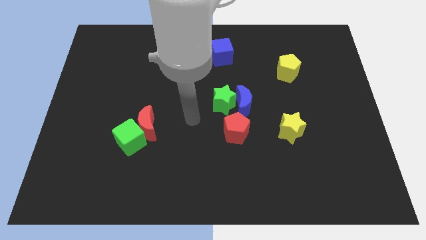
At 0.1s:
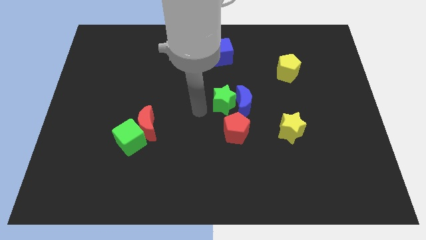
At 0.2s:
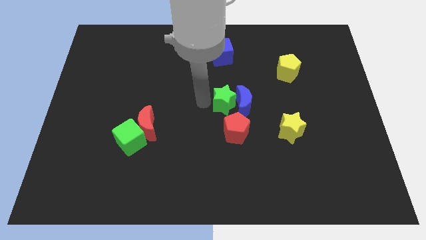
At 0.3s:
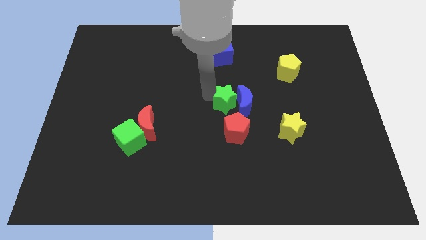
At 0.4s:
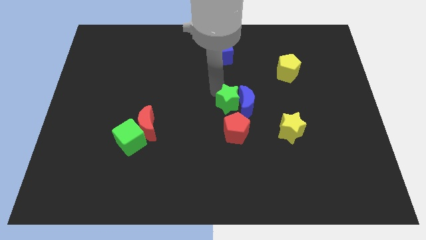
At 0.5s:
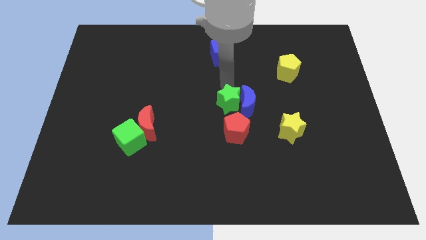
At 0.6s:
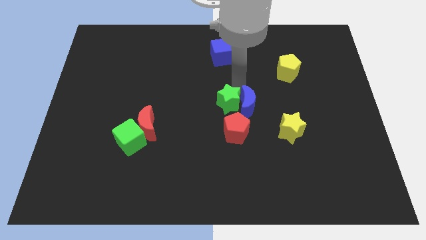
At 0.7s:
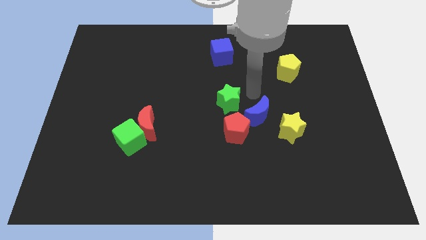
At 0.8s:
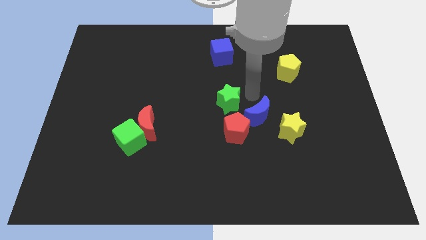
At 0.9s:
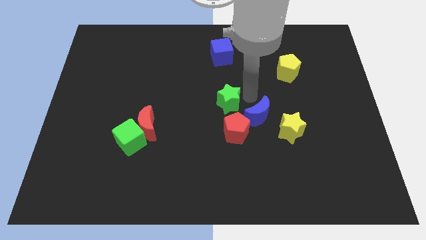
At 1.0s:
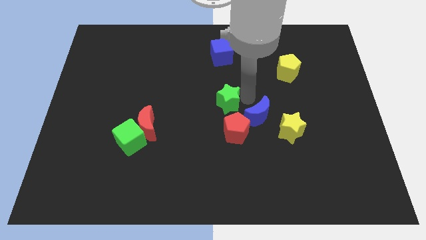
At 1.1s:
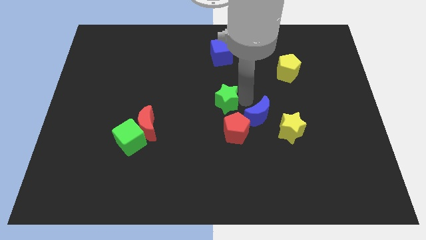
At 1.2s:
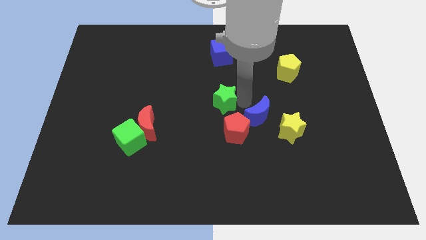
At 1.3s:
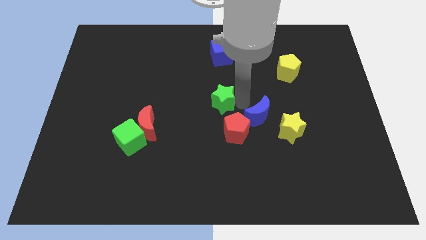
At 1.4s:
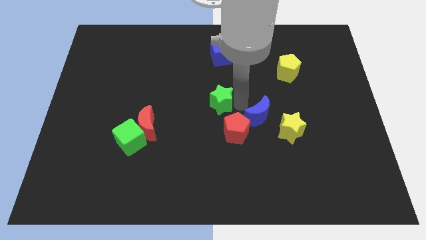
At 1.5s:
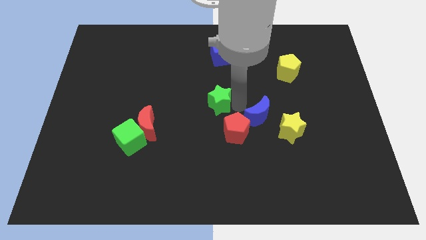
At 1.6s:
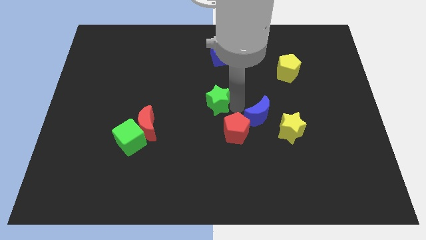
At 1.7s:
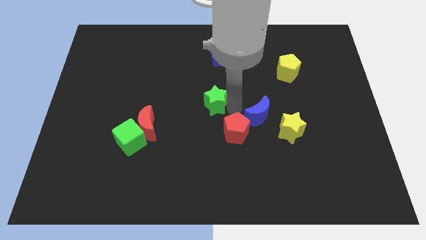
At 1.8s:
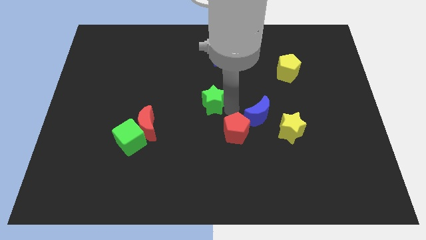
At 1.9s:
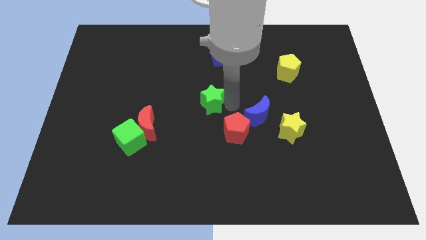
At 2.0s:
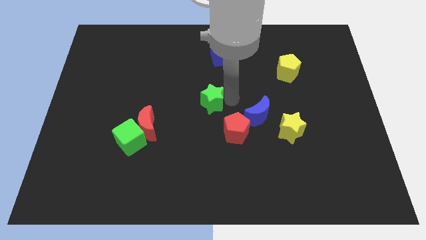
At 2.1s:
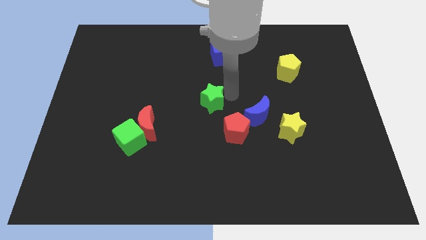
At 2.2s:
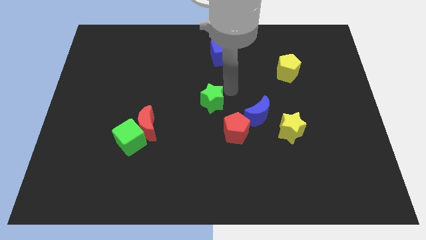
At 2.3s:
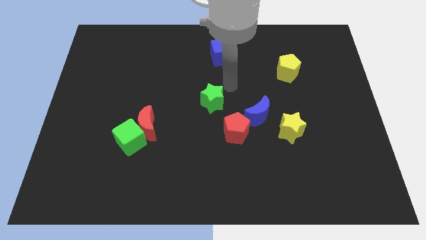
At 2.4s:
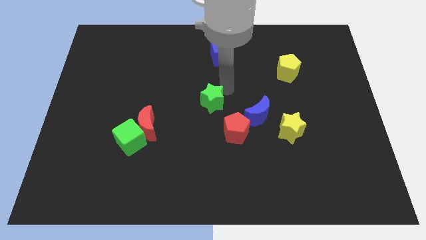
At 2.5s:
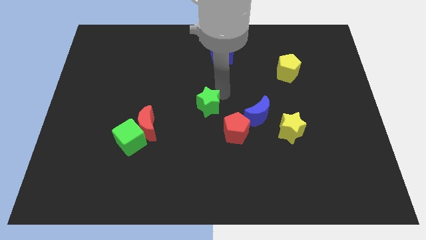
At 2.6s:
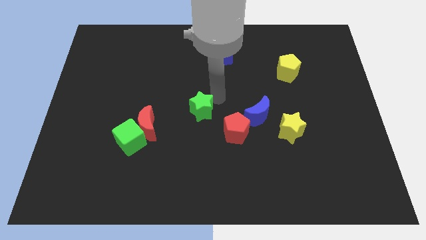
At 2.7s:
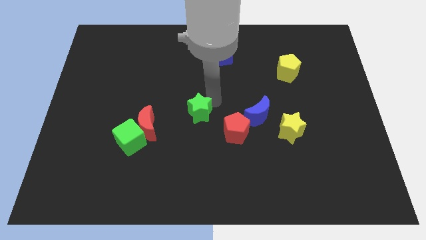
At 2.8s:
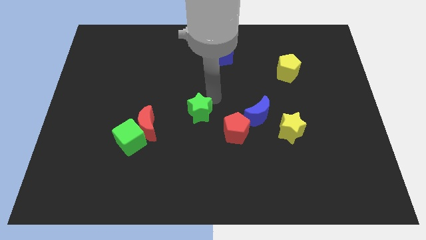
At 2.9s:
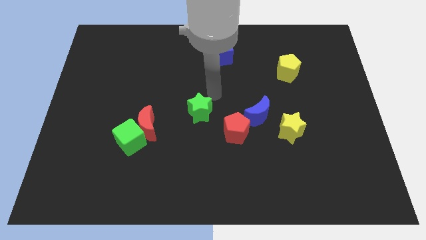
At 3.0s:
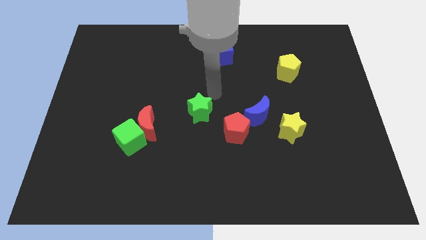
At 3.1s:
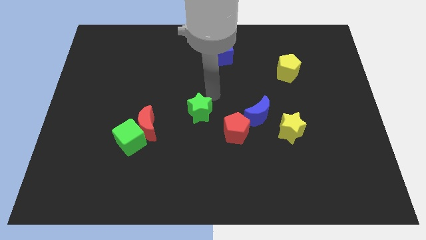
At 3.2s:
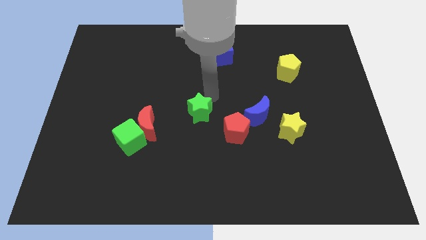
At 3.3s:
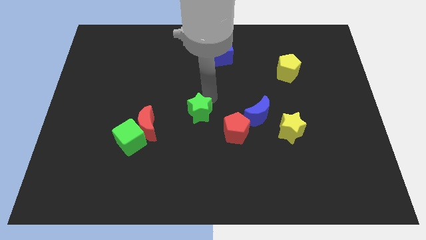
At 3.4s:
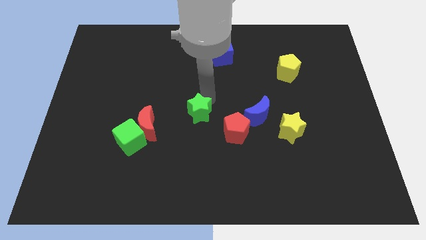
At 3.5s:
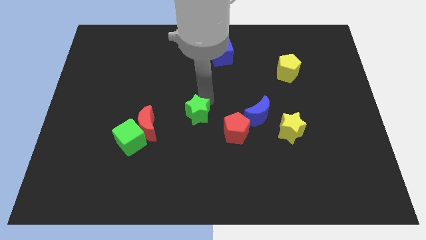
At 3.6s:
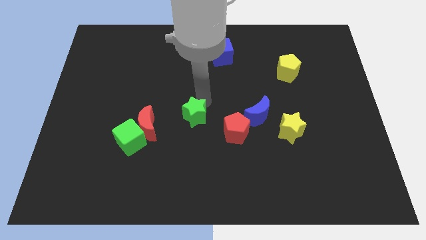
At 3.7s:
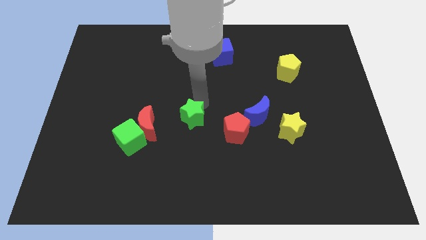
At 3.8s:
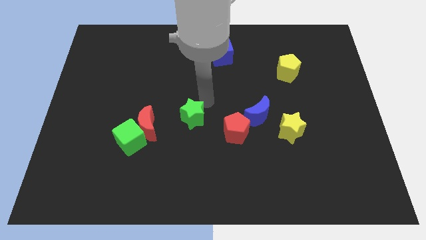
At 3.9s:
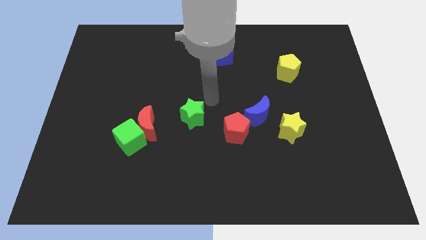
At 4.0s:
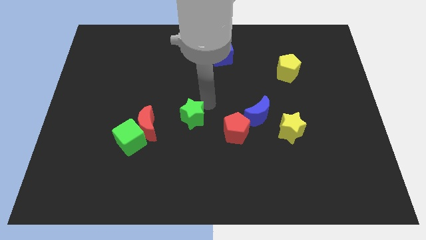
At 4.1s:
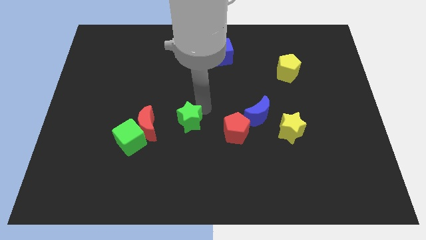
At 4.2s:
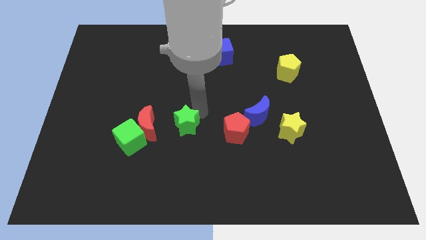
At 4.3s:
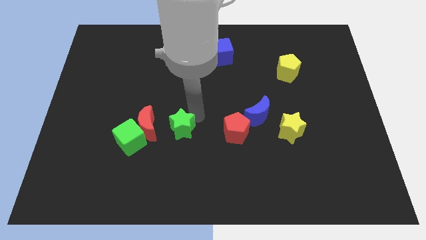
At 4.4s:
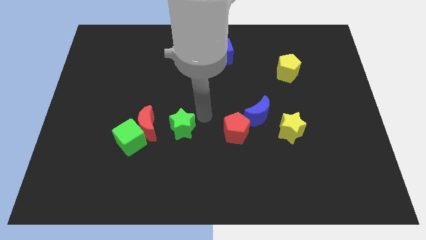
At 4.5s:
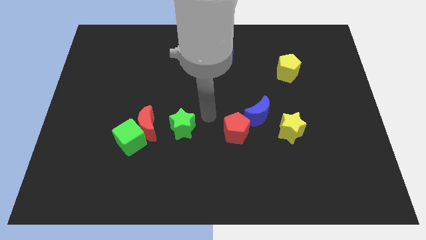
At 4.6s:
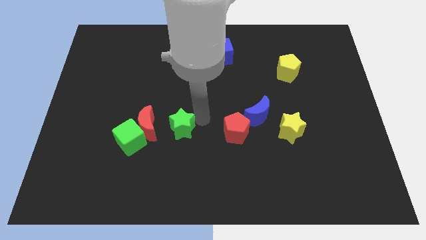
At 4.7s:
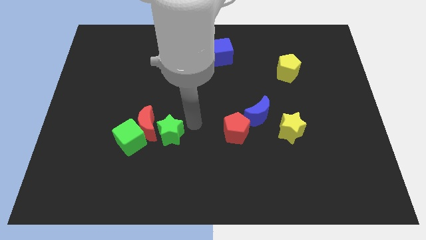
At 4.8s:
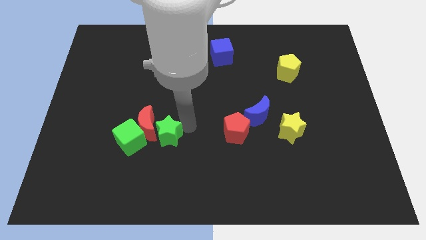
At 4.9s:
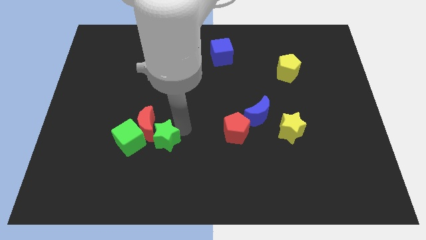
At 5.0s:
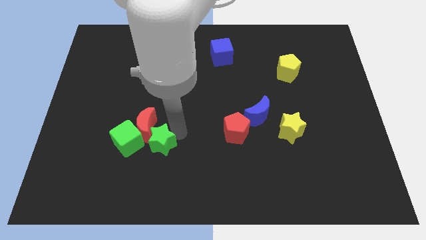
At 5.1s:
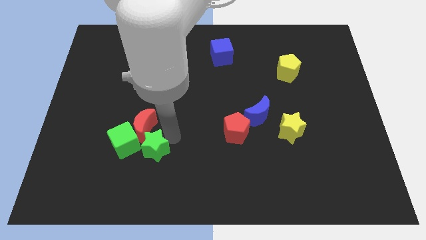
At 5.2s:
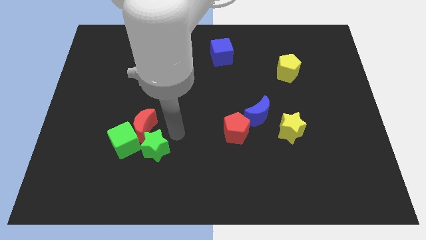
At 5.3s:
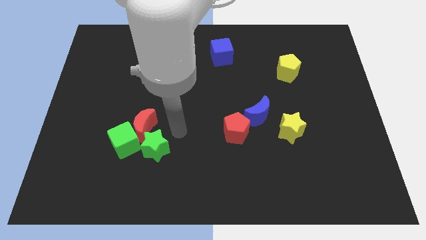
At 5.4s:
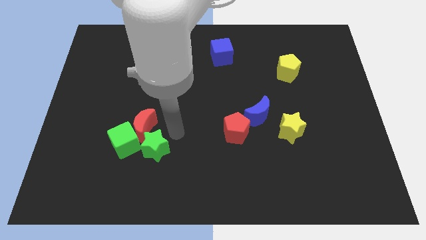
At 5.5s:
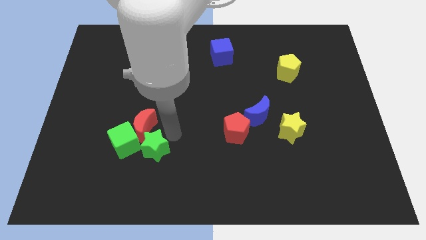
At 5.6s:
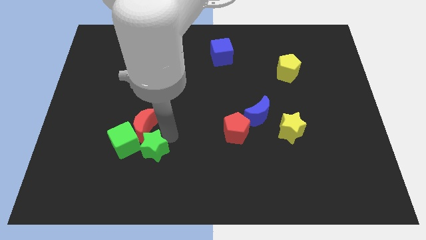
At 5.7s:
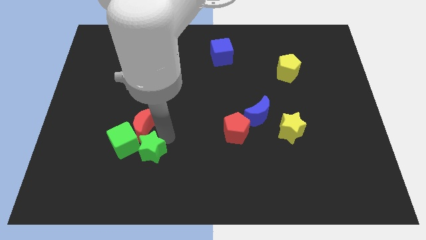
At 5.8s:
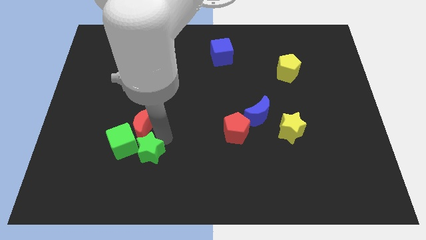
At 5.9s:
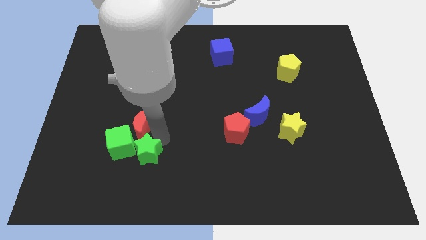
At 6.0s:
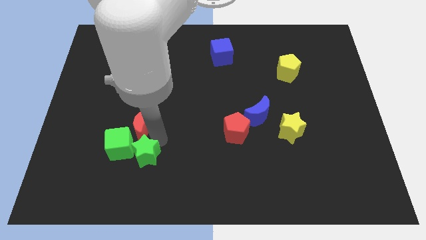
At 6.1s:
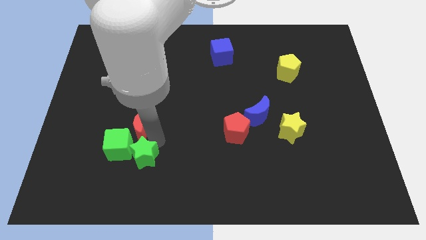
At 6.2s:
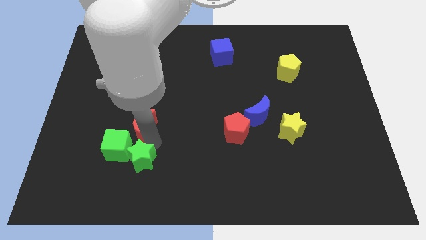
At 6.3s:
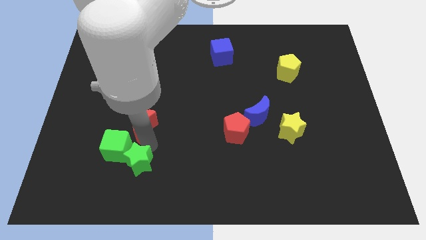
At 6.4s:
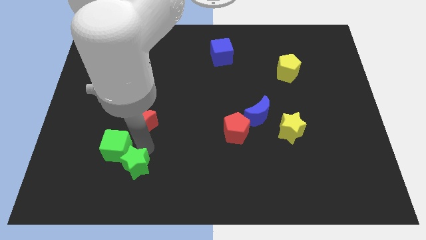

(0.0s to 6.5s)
push the green star below the green cube
